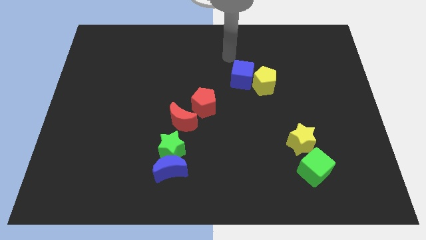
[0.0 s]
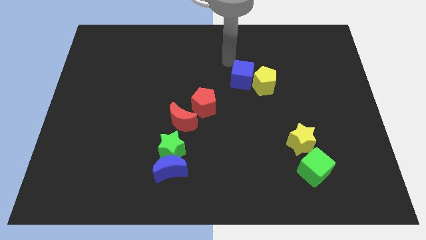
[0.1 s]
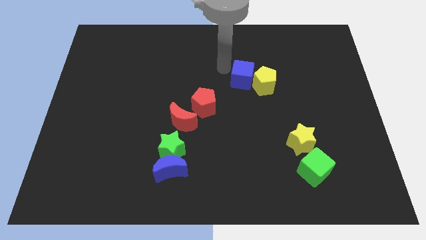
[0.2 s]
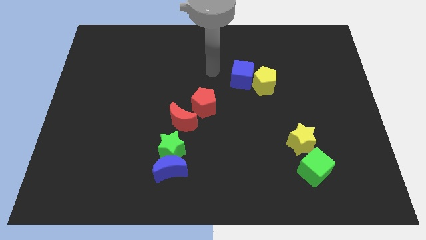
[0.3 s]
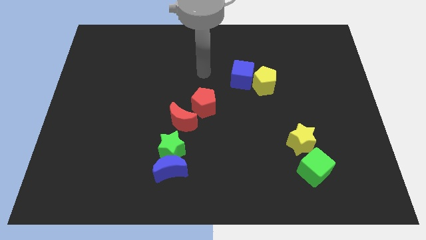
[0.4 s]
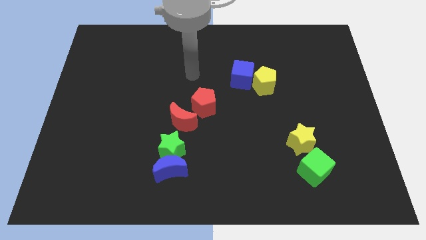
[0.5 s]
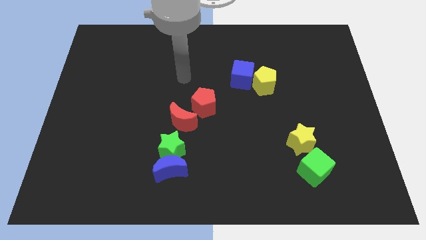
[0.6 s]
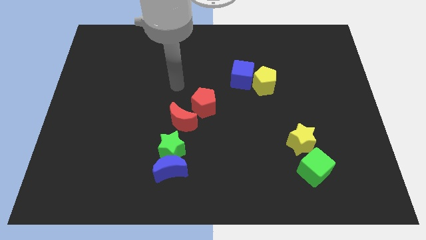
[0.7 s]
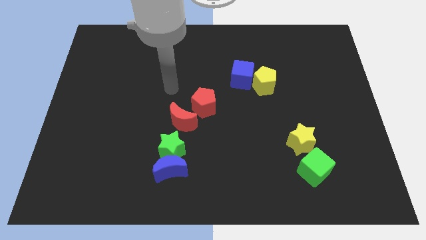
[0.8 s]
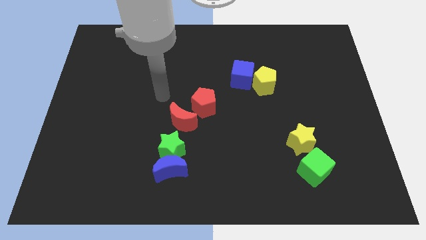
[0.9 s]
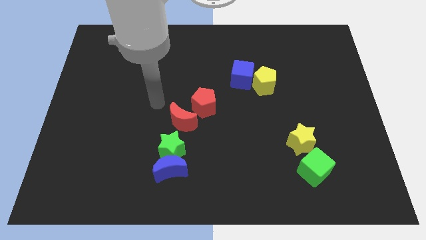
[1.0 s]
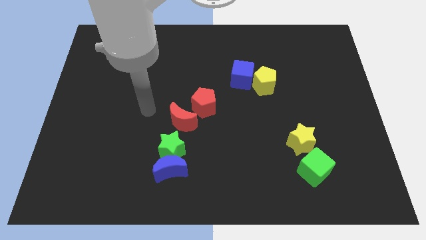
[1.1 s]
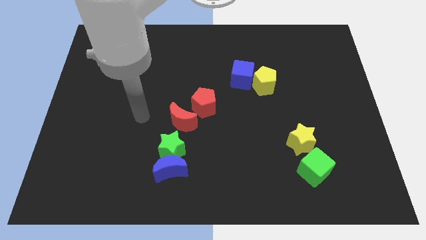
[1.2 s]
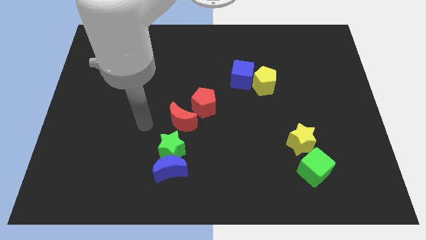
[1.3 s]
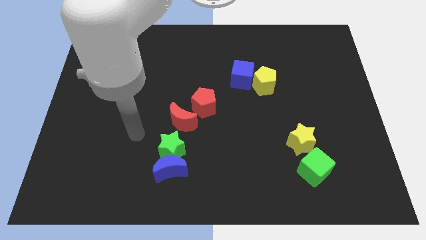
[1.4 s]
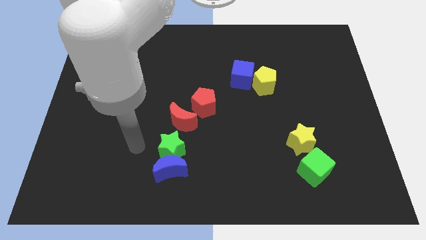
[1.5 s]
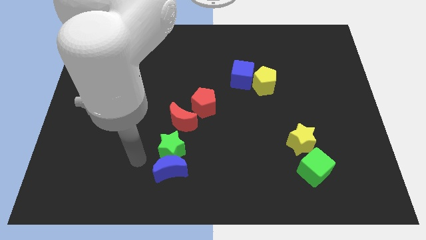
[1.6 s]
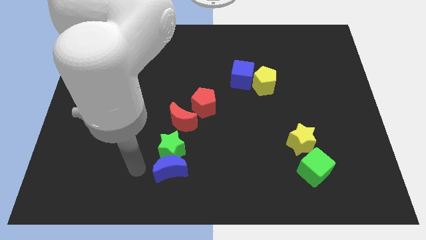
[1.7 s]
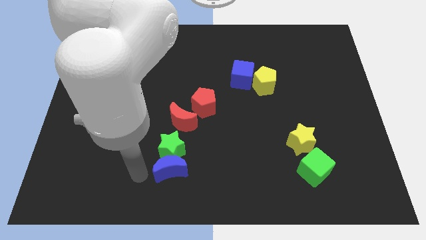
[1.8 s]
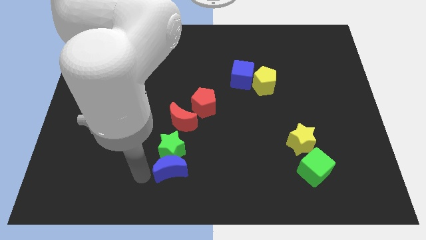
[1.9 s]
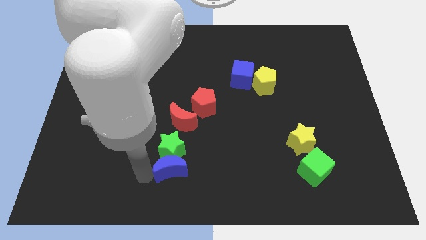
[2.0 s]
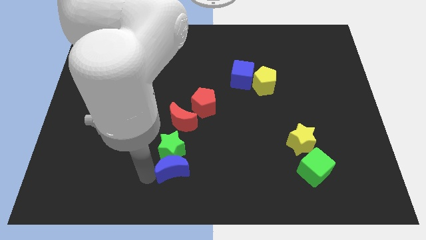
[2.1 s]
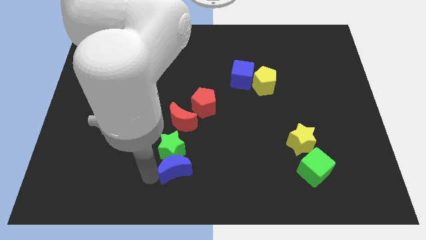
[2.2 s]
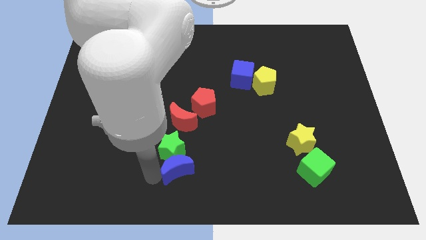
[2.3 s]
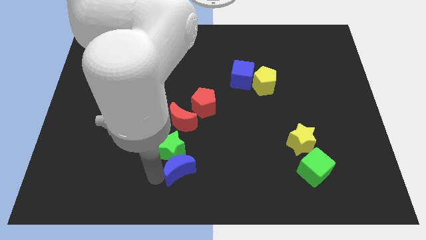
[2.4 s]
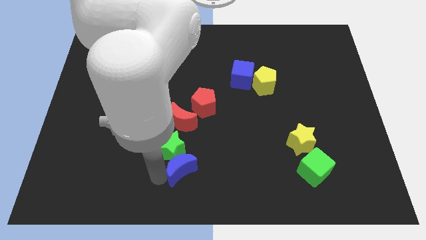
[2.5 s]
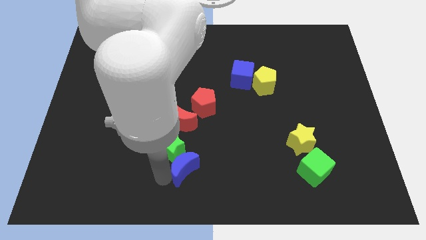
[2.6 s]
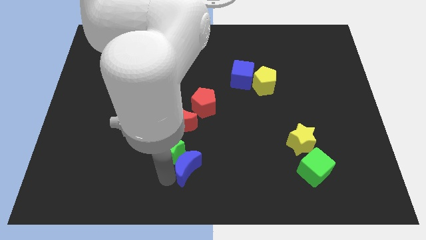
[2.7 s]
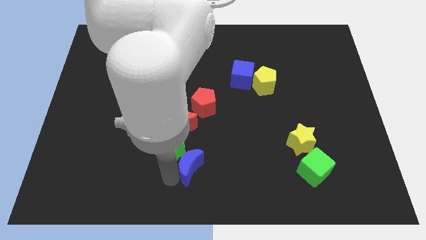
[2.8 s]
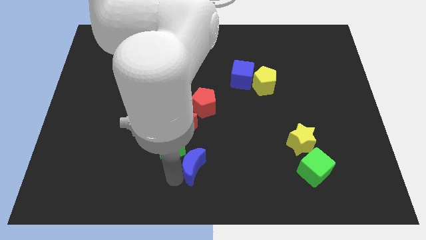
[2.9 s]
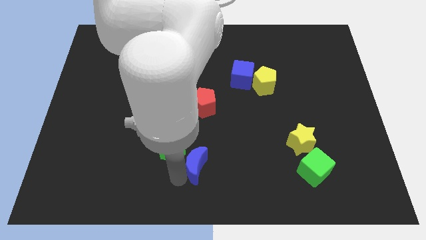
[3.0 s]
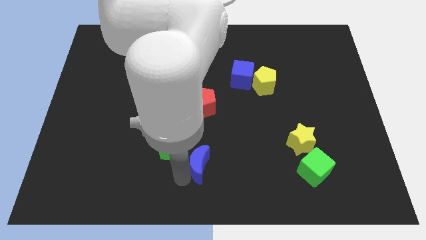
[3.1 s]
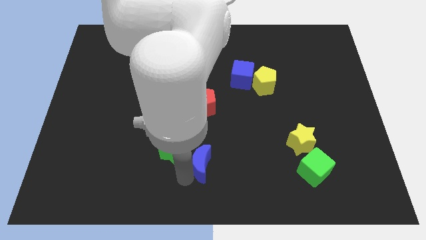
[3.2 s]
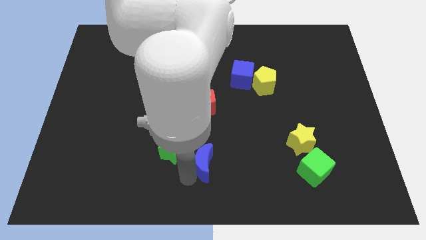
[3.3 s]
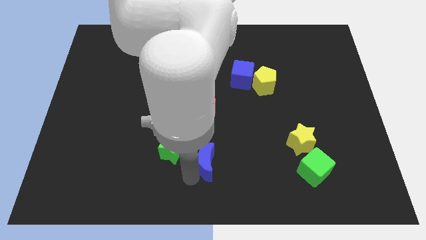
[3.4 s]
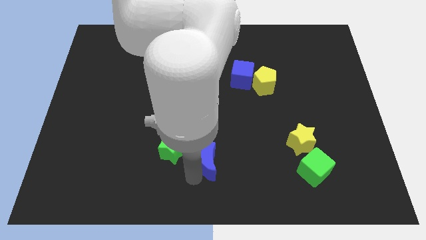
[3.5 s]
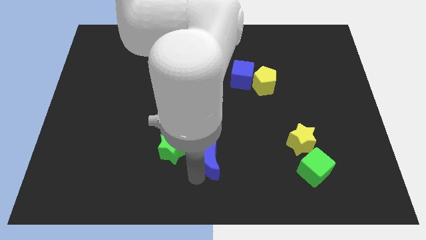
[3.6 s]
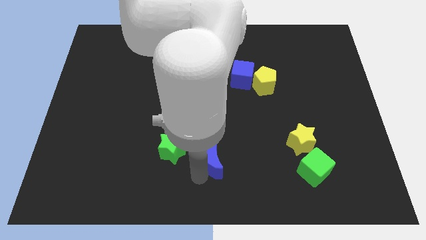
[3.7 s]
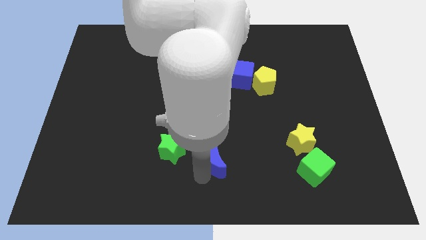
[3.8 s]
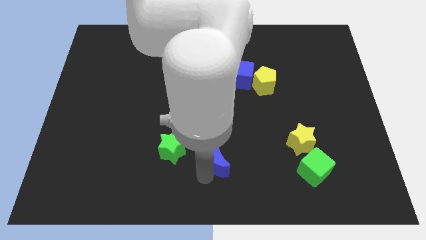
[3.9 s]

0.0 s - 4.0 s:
slightly push the blue moon diagonally upwards and to the right

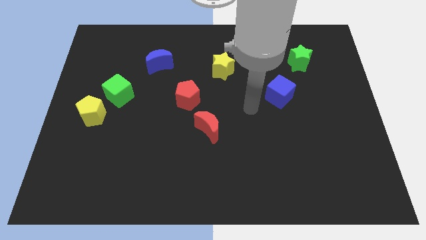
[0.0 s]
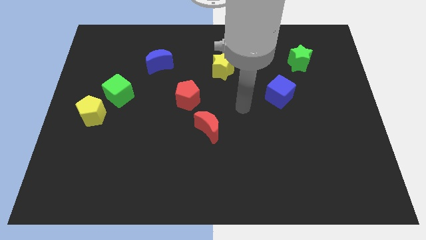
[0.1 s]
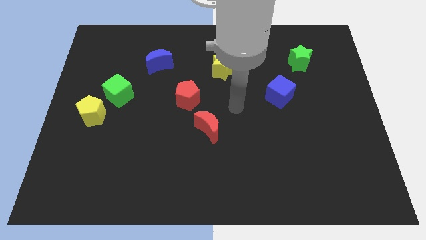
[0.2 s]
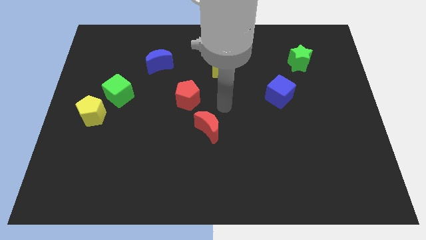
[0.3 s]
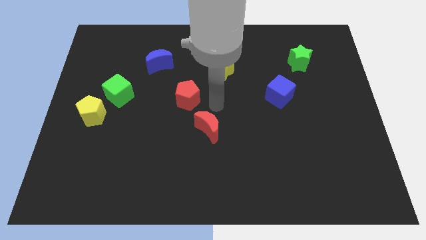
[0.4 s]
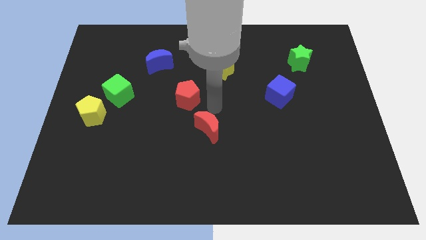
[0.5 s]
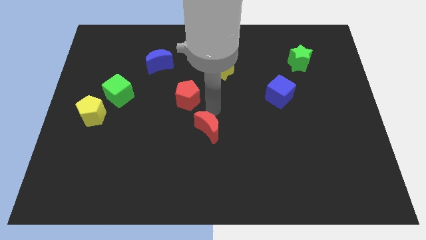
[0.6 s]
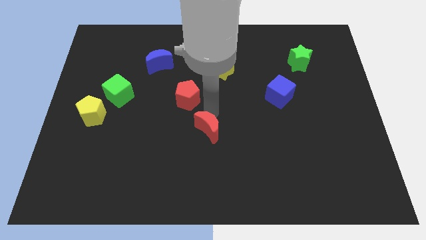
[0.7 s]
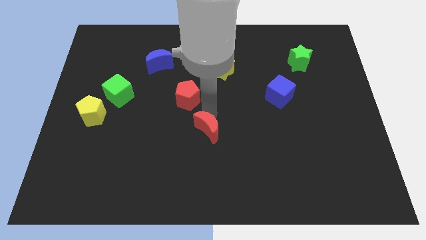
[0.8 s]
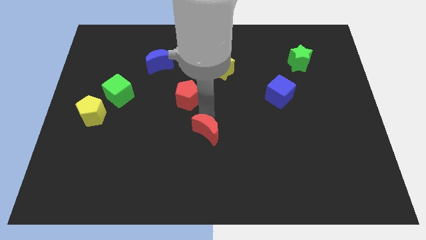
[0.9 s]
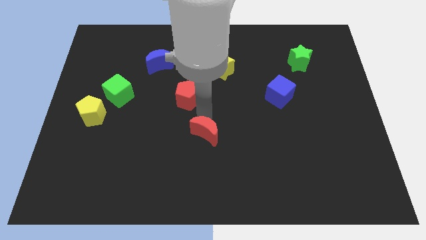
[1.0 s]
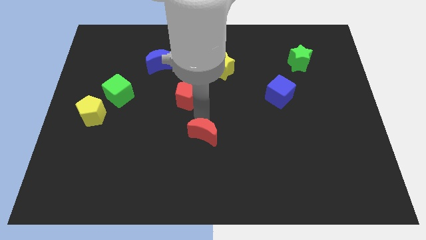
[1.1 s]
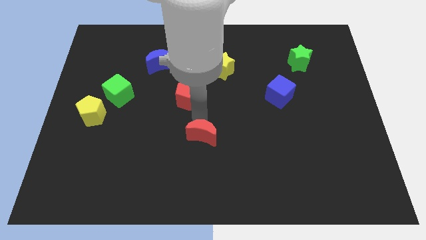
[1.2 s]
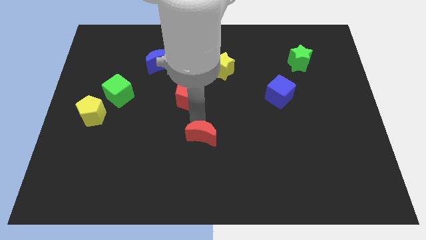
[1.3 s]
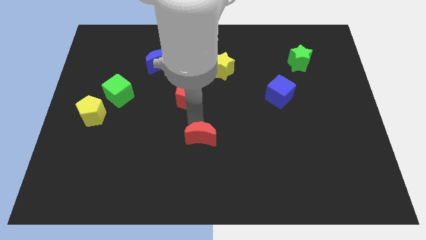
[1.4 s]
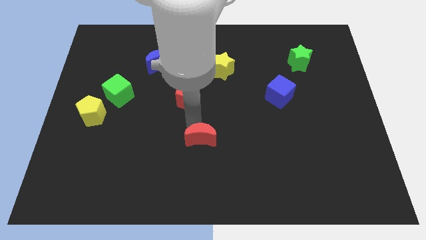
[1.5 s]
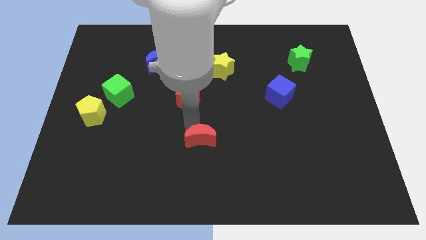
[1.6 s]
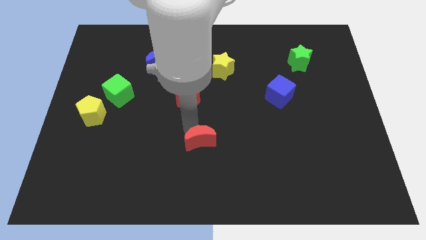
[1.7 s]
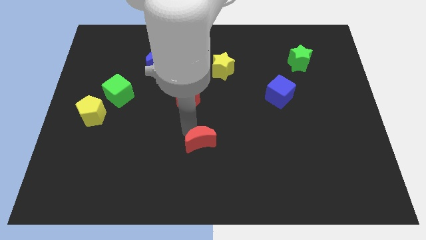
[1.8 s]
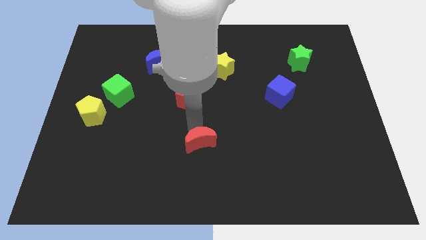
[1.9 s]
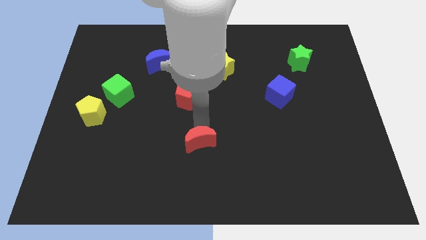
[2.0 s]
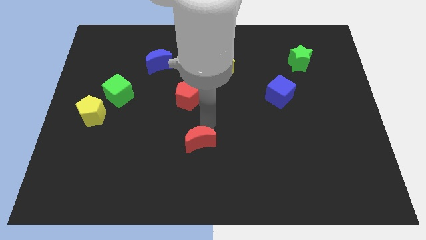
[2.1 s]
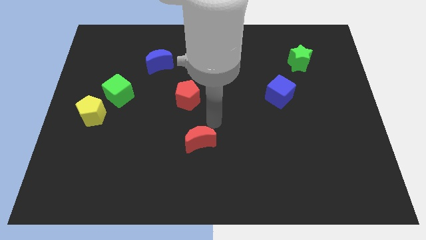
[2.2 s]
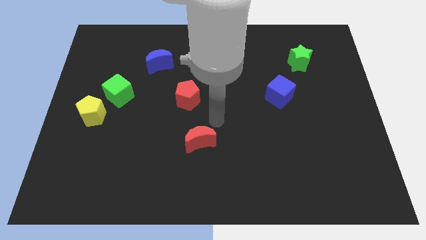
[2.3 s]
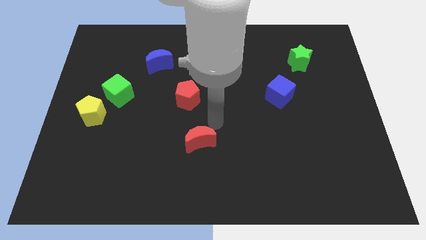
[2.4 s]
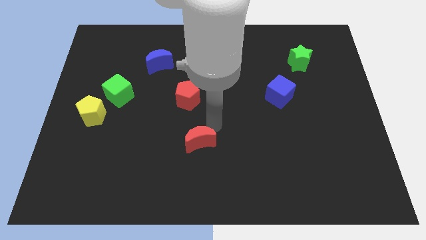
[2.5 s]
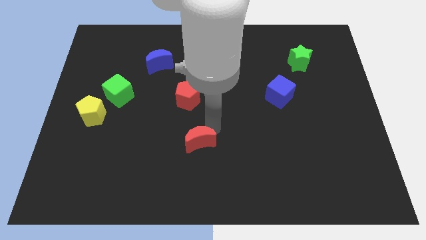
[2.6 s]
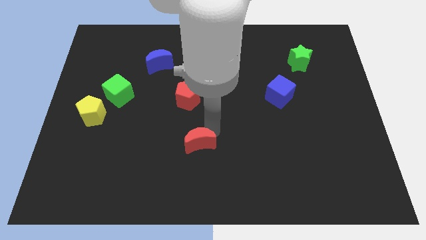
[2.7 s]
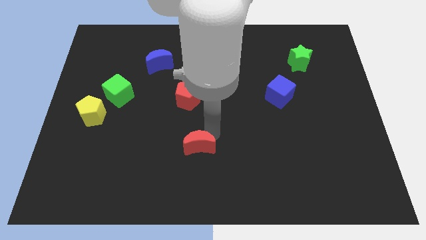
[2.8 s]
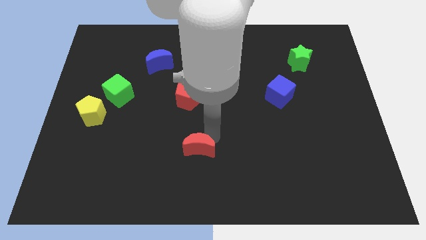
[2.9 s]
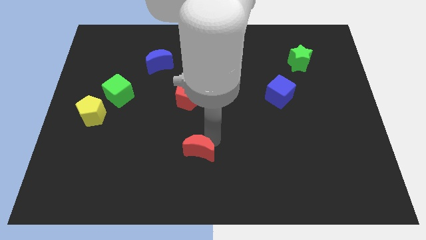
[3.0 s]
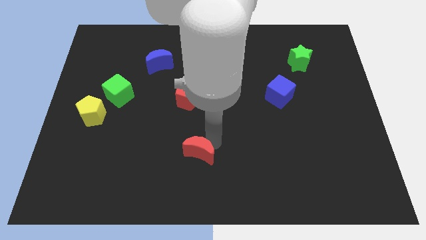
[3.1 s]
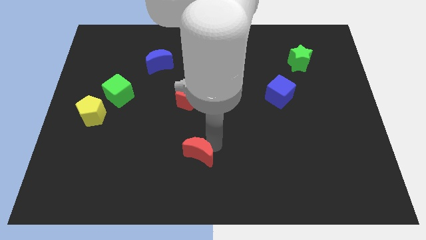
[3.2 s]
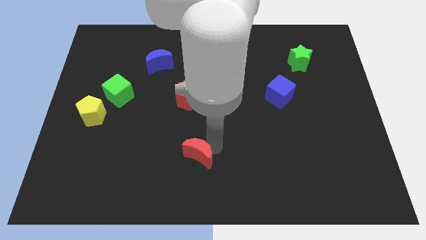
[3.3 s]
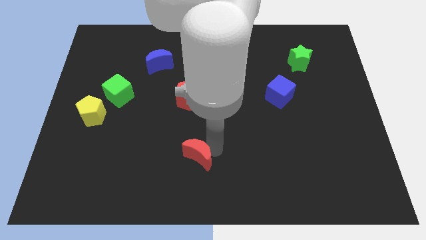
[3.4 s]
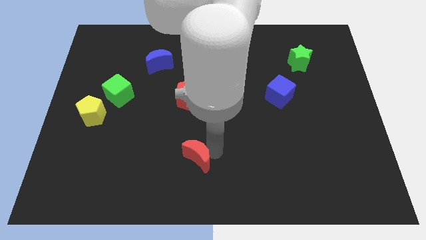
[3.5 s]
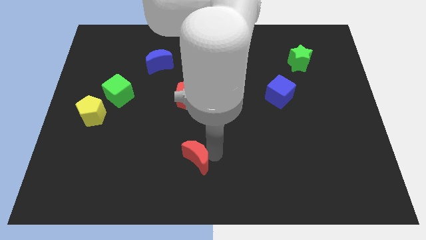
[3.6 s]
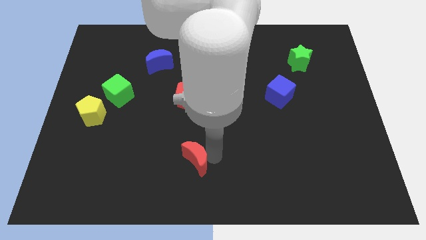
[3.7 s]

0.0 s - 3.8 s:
slightly push the red moon diagonally downwards and to the left
